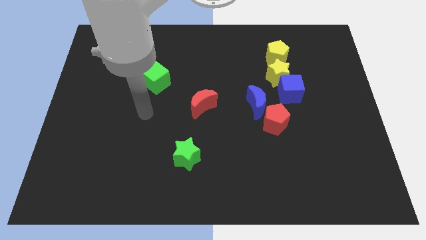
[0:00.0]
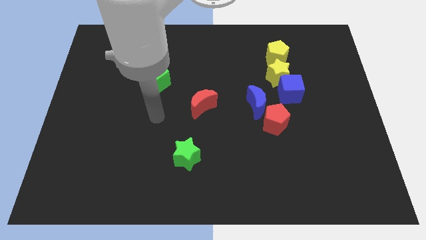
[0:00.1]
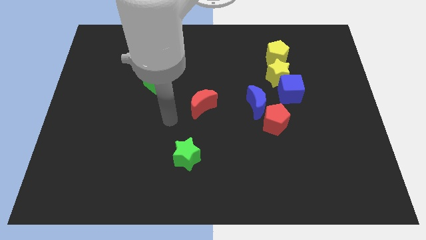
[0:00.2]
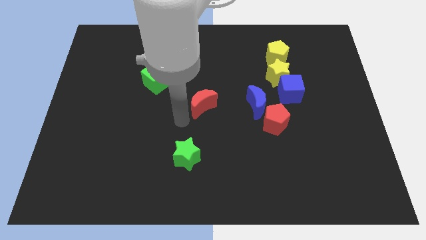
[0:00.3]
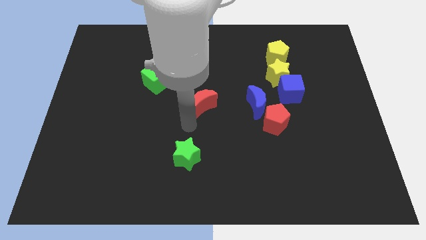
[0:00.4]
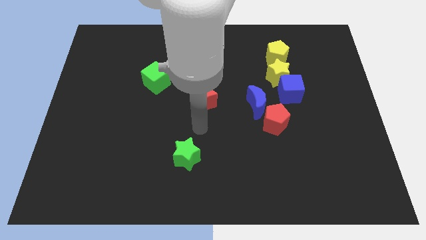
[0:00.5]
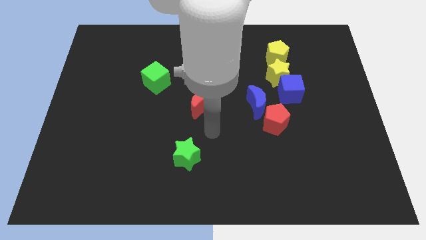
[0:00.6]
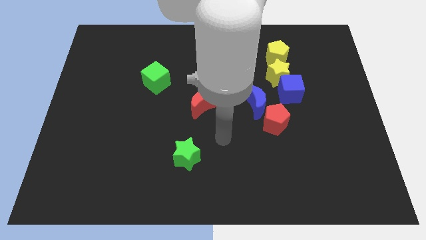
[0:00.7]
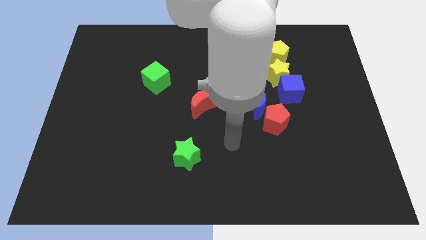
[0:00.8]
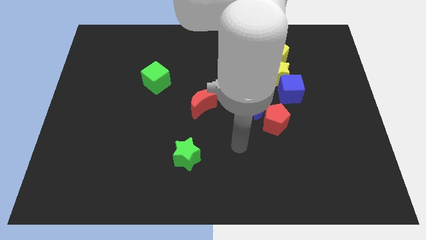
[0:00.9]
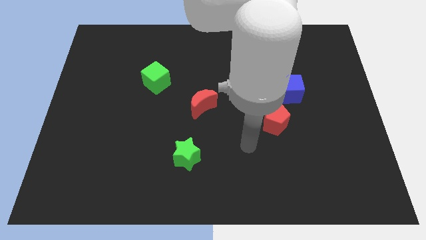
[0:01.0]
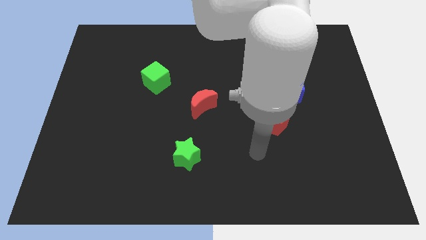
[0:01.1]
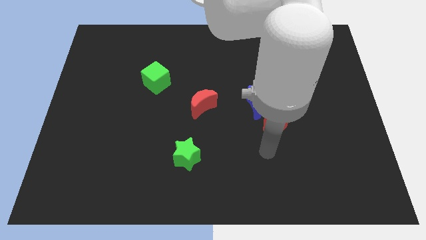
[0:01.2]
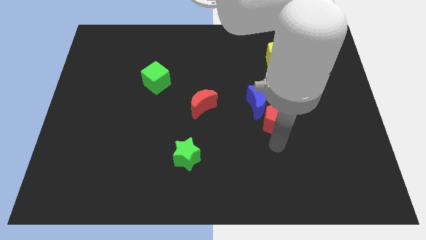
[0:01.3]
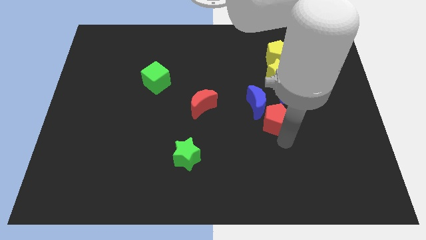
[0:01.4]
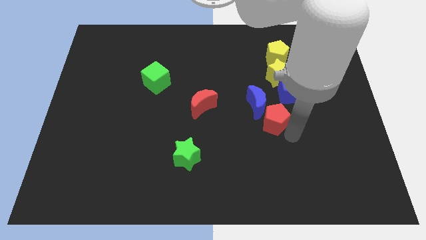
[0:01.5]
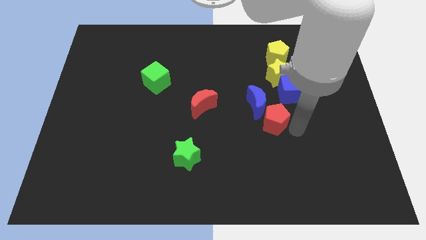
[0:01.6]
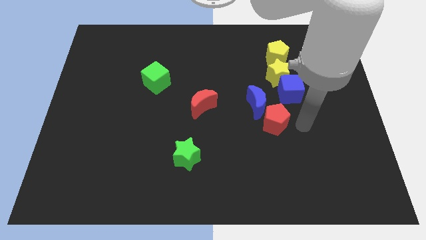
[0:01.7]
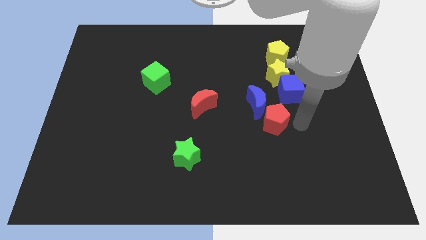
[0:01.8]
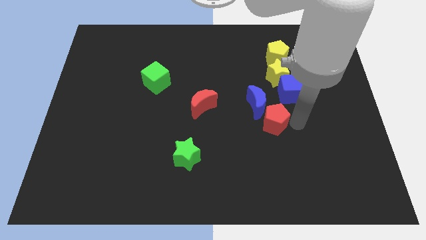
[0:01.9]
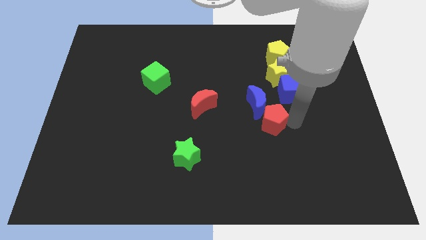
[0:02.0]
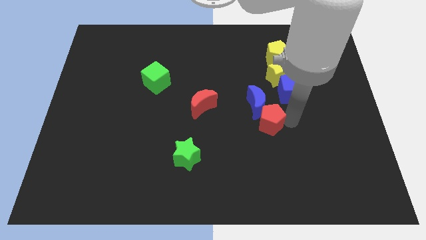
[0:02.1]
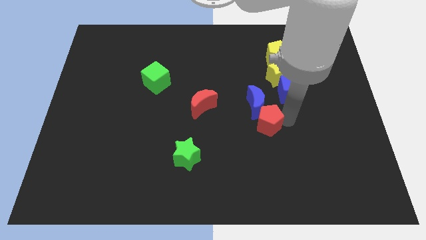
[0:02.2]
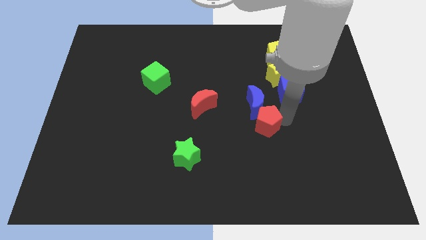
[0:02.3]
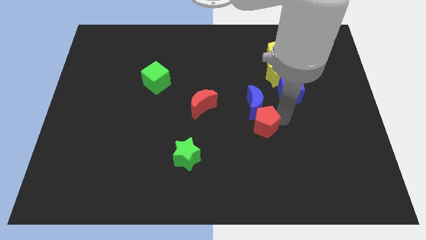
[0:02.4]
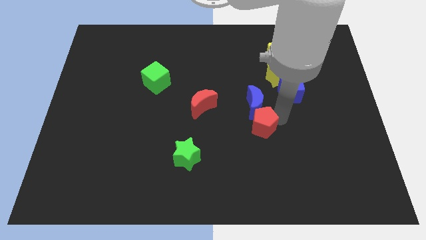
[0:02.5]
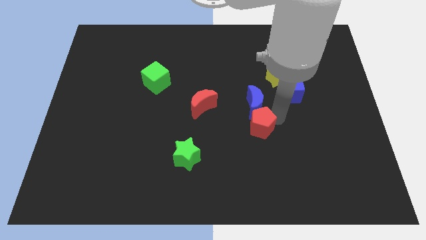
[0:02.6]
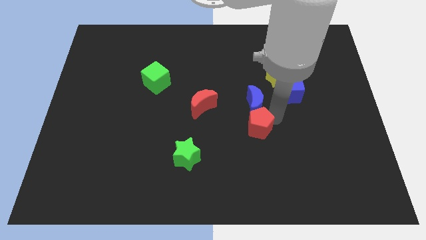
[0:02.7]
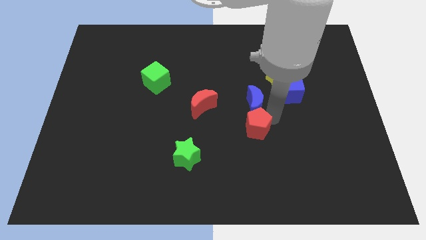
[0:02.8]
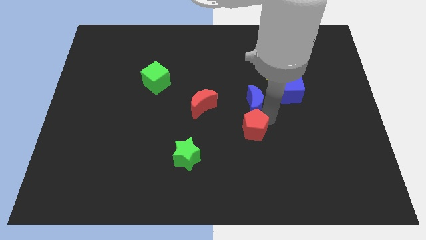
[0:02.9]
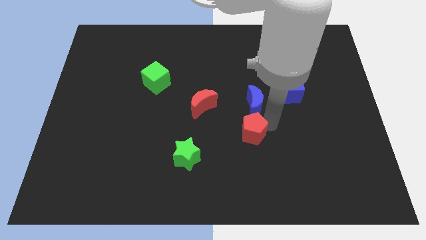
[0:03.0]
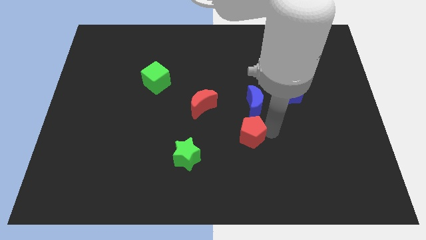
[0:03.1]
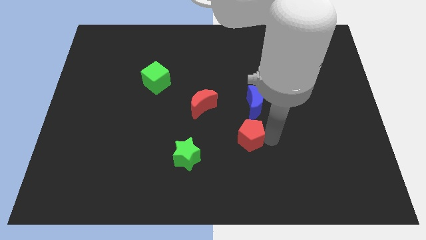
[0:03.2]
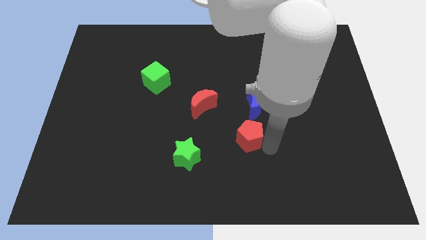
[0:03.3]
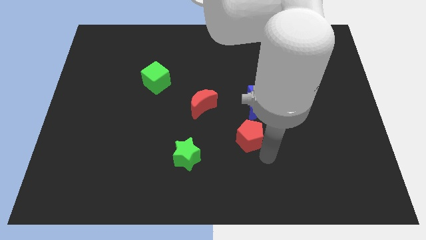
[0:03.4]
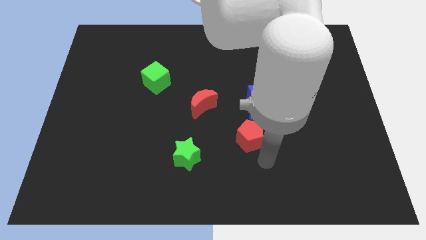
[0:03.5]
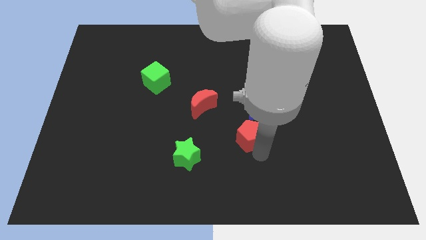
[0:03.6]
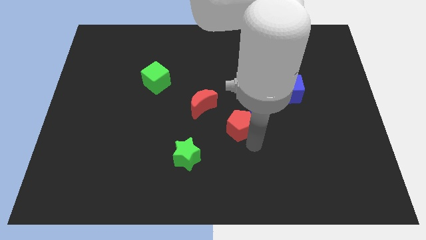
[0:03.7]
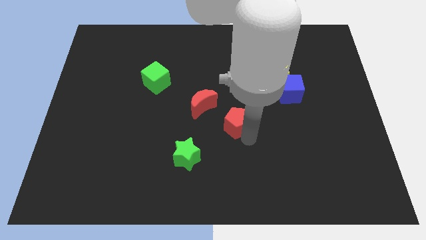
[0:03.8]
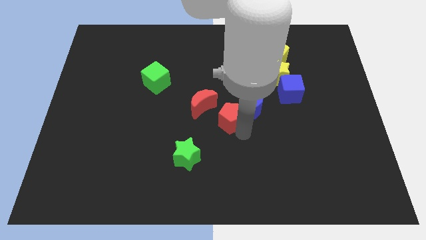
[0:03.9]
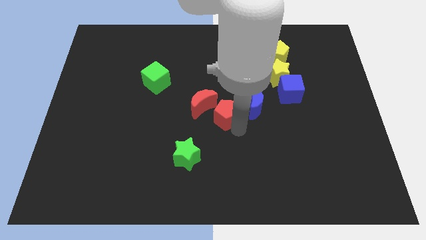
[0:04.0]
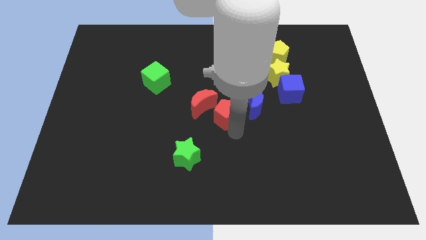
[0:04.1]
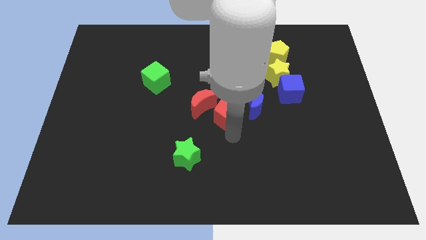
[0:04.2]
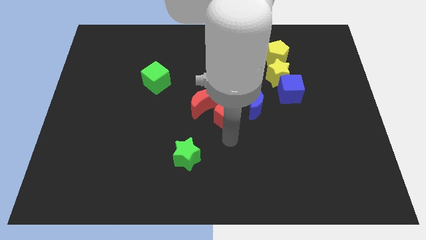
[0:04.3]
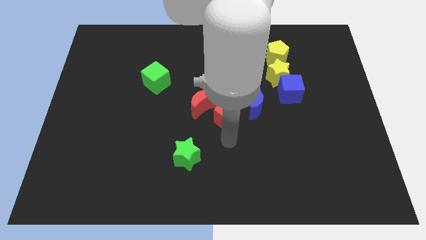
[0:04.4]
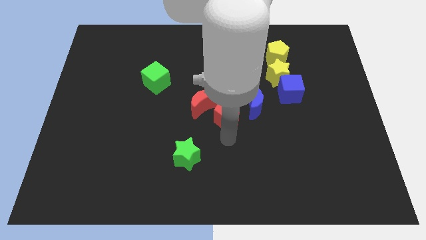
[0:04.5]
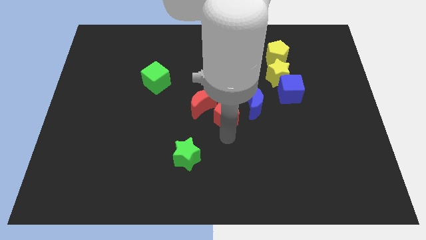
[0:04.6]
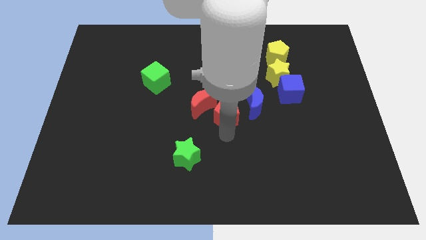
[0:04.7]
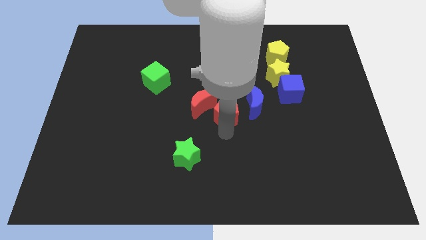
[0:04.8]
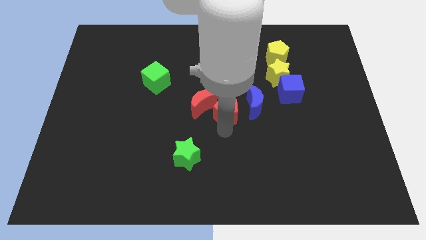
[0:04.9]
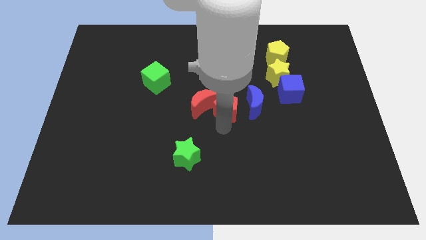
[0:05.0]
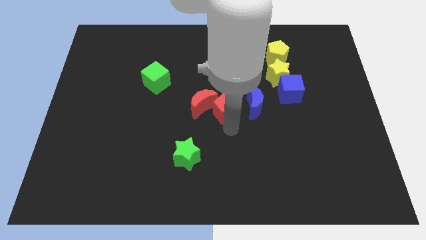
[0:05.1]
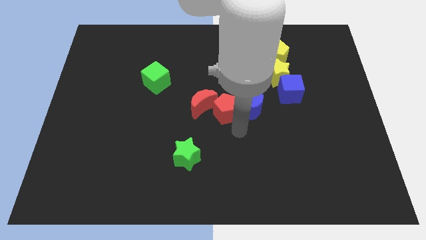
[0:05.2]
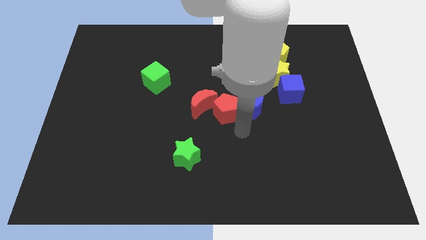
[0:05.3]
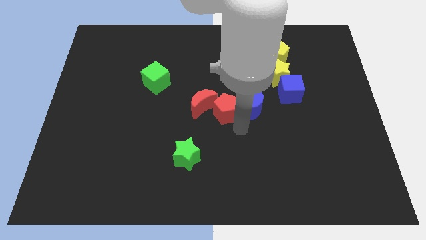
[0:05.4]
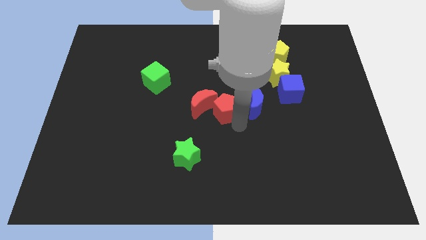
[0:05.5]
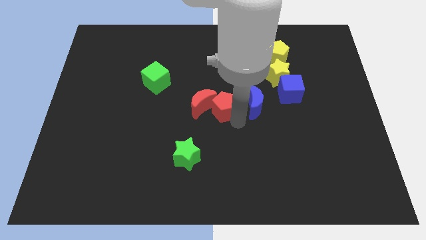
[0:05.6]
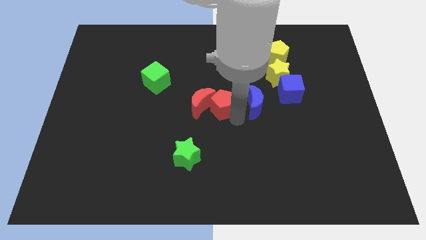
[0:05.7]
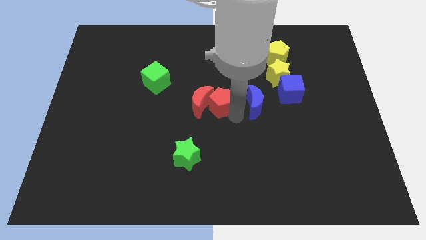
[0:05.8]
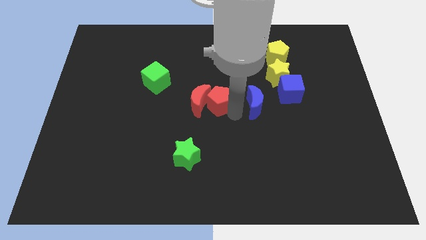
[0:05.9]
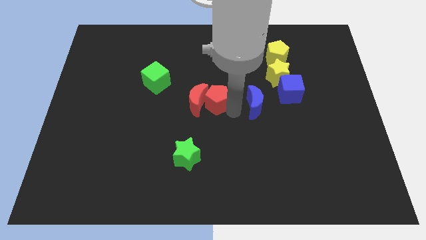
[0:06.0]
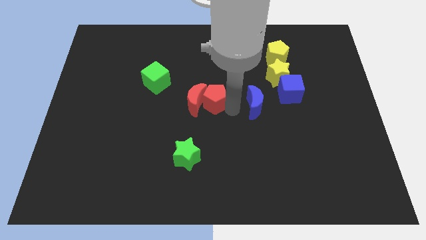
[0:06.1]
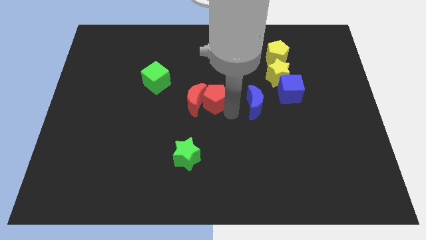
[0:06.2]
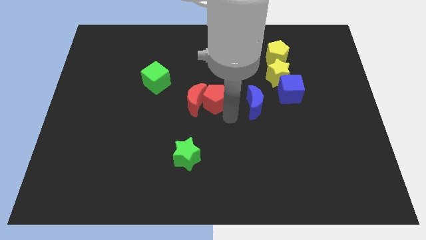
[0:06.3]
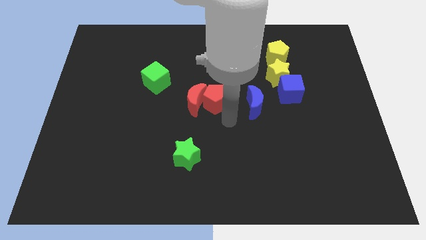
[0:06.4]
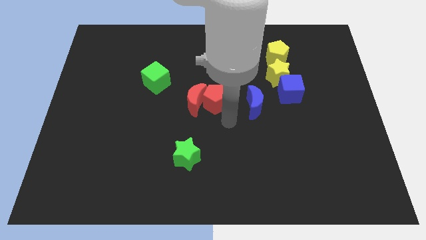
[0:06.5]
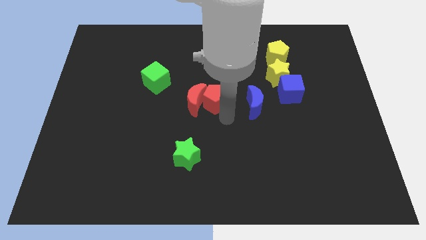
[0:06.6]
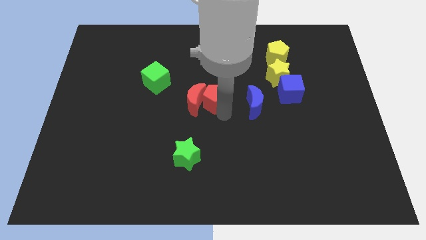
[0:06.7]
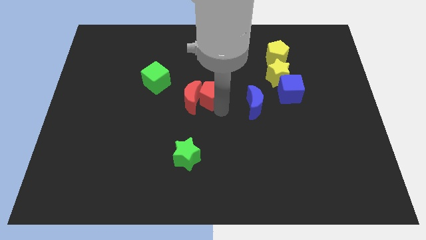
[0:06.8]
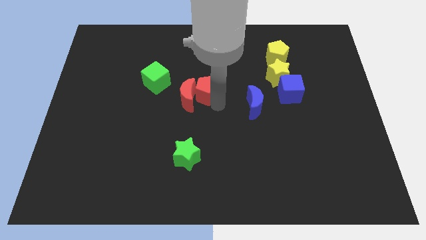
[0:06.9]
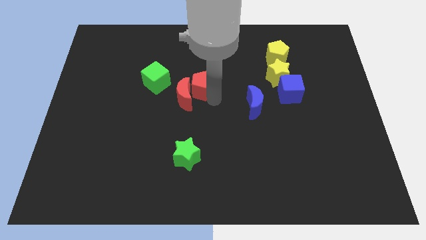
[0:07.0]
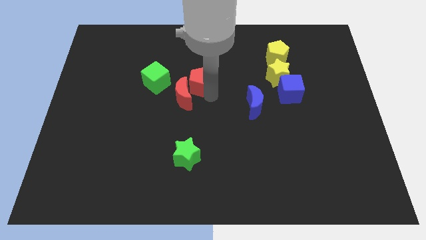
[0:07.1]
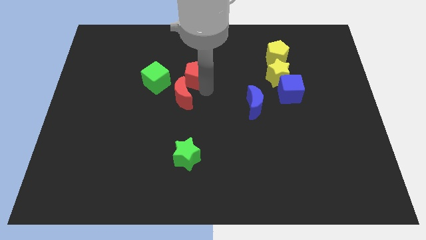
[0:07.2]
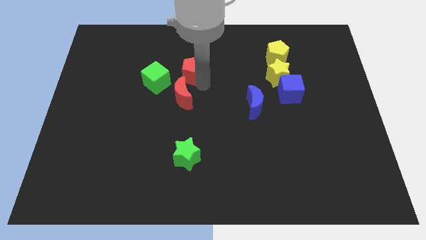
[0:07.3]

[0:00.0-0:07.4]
push the red pentagon to the top right side of the green cube
